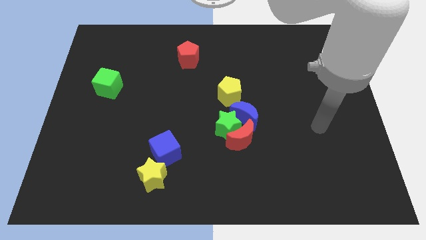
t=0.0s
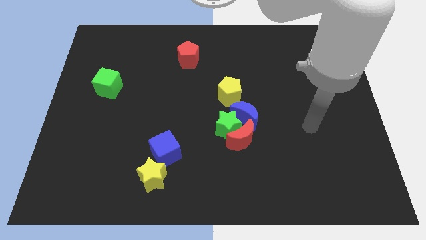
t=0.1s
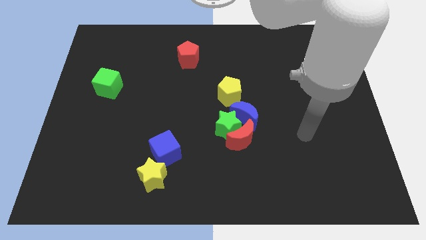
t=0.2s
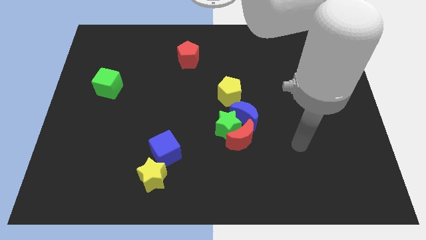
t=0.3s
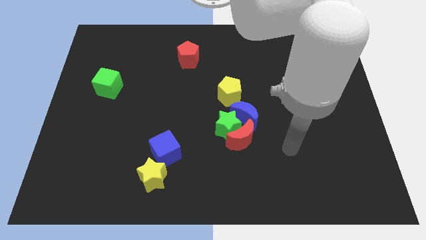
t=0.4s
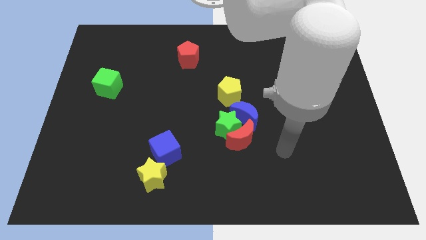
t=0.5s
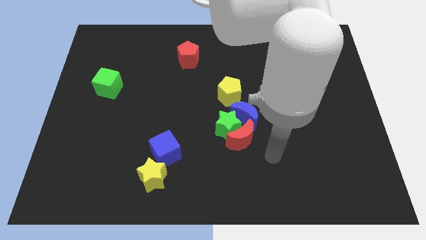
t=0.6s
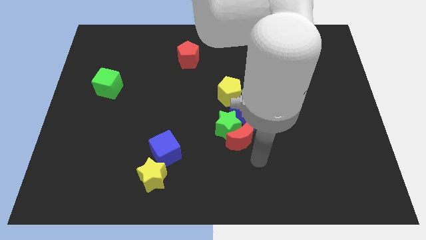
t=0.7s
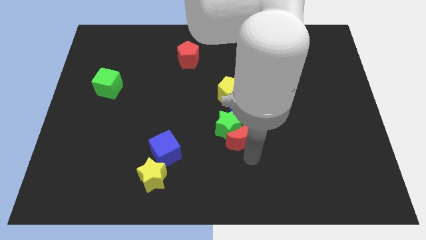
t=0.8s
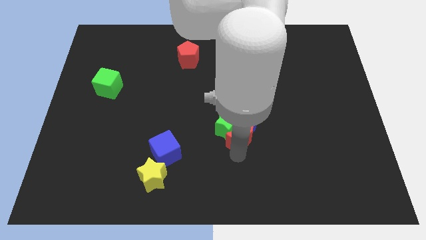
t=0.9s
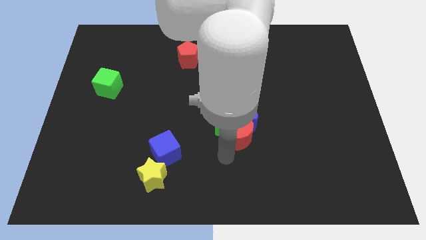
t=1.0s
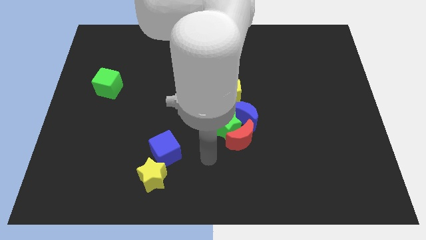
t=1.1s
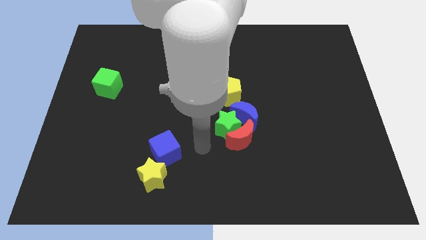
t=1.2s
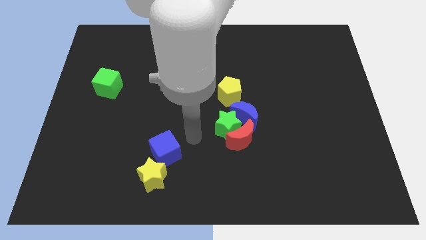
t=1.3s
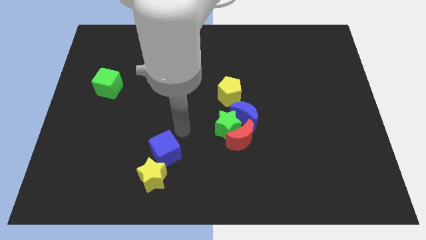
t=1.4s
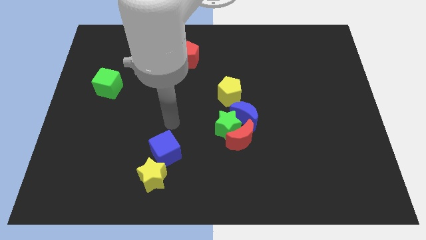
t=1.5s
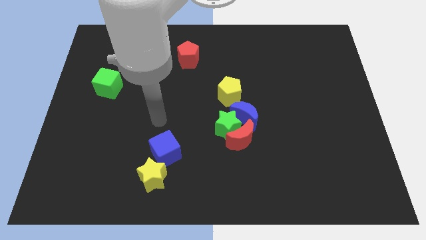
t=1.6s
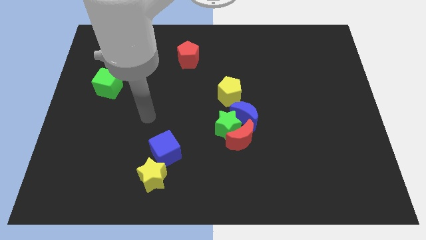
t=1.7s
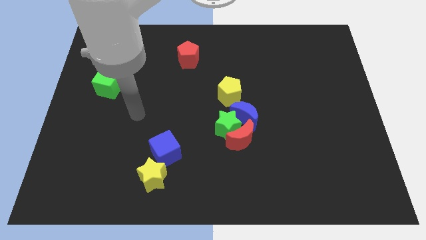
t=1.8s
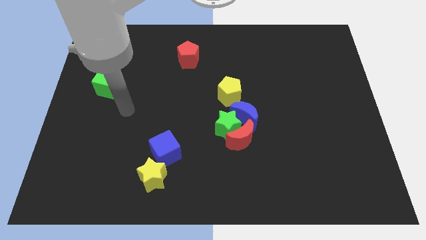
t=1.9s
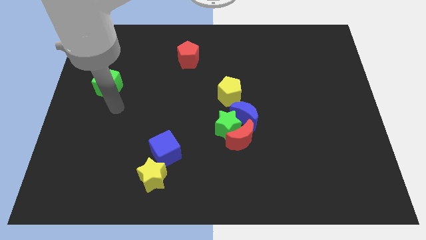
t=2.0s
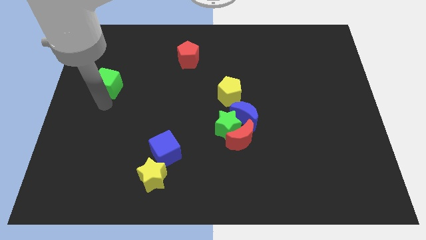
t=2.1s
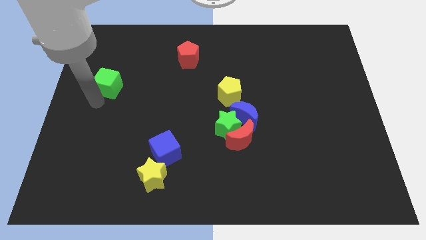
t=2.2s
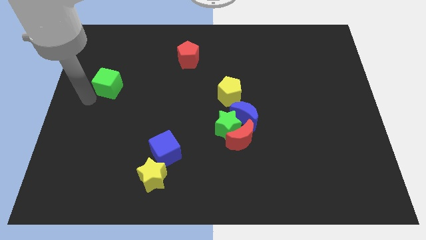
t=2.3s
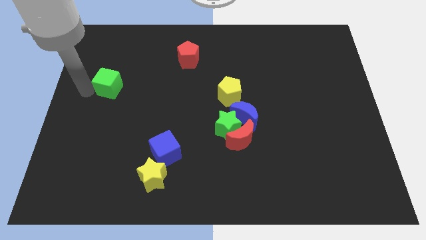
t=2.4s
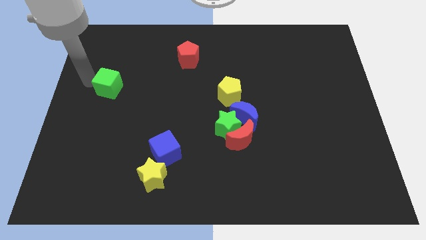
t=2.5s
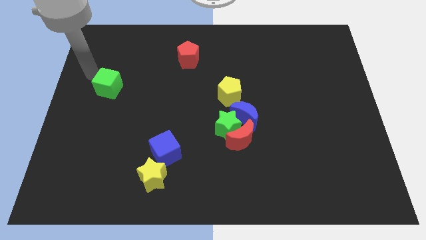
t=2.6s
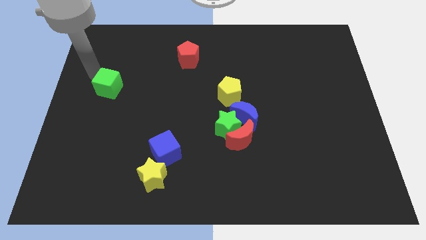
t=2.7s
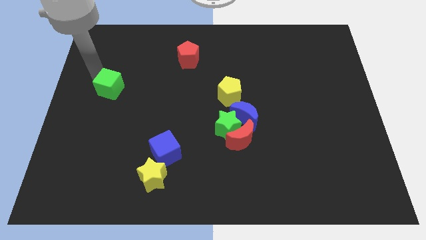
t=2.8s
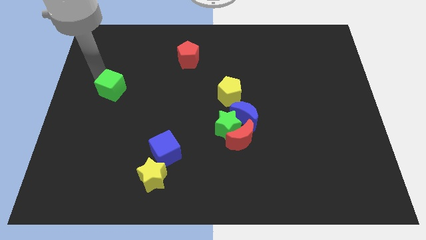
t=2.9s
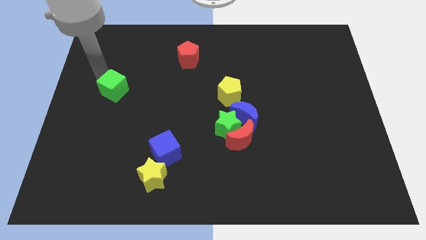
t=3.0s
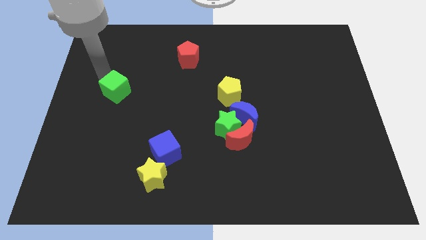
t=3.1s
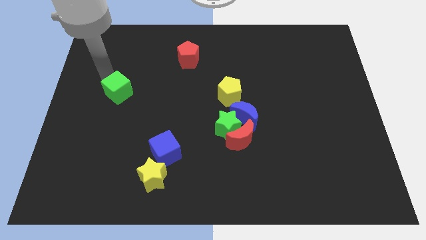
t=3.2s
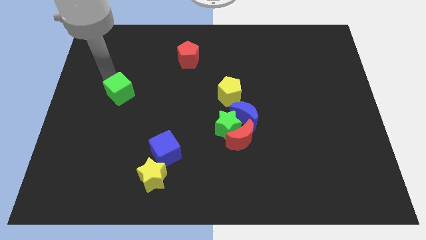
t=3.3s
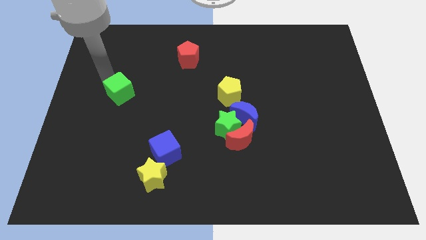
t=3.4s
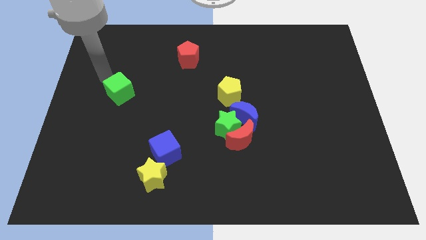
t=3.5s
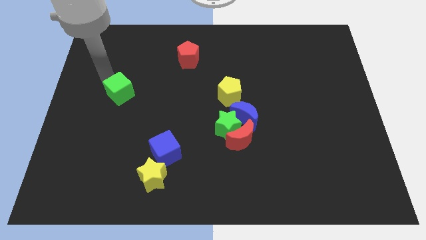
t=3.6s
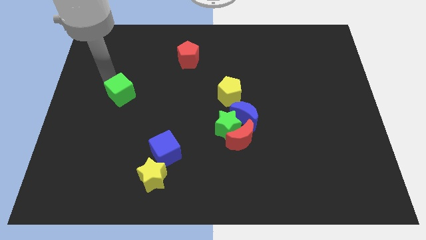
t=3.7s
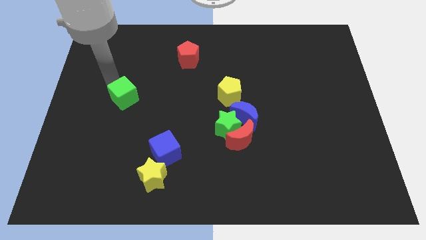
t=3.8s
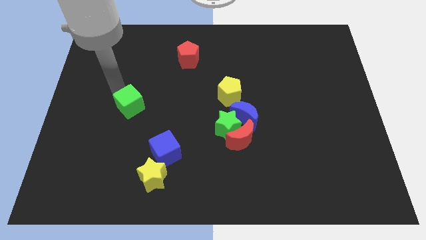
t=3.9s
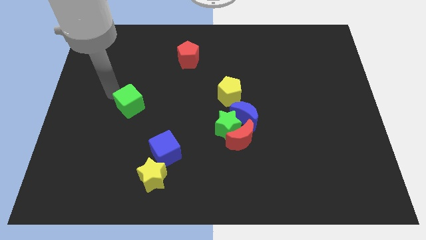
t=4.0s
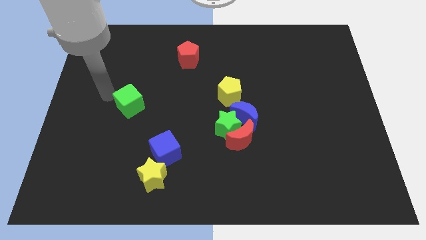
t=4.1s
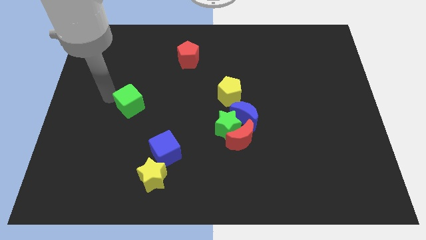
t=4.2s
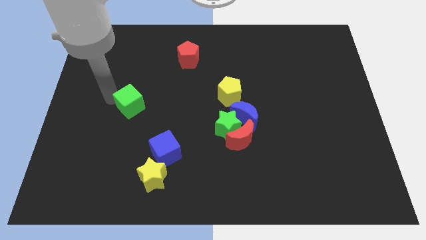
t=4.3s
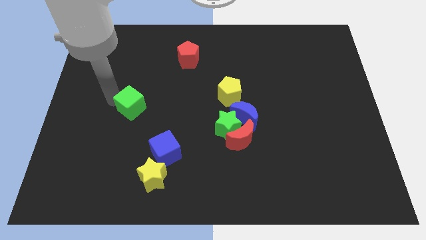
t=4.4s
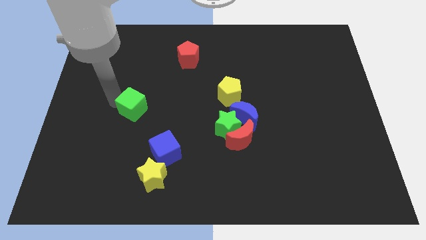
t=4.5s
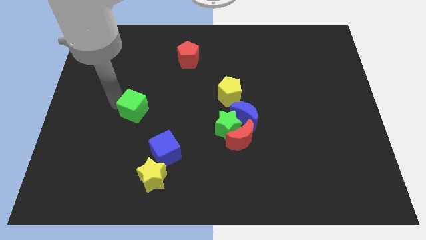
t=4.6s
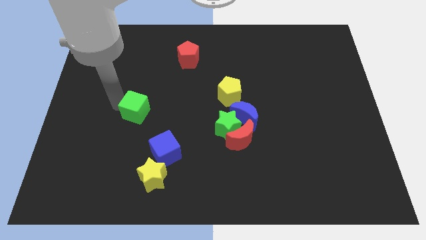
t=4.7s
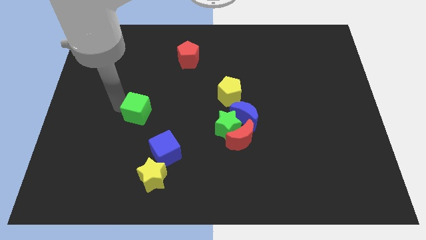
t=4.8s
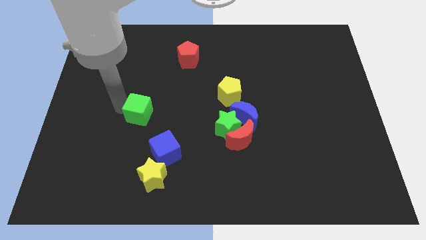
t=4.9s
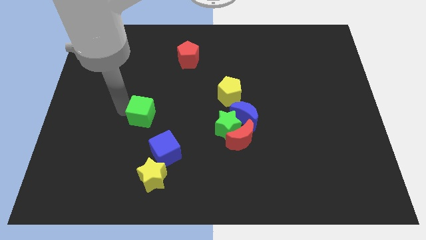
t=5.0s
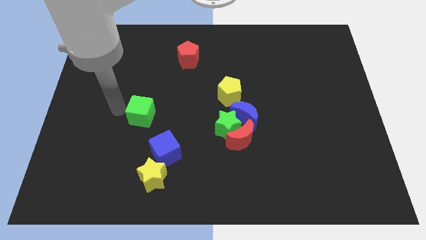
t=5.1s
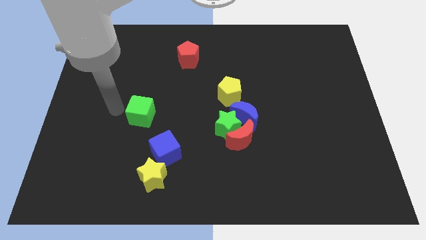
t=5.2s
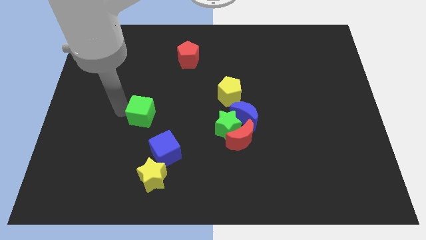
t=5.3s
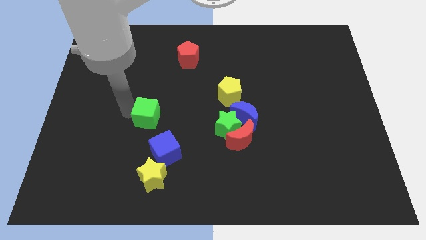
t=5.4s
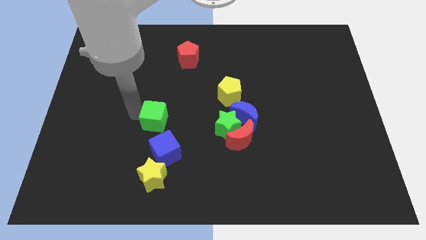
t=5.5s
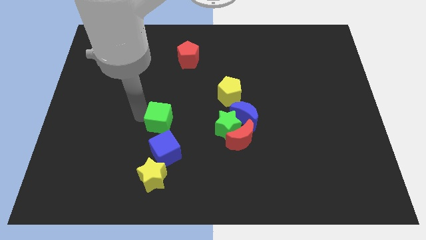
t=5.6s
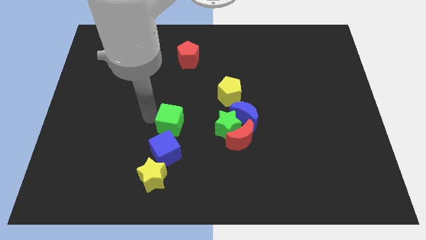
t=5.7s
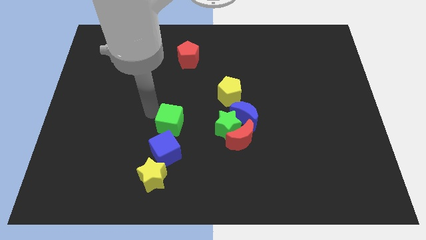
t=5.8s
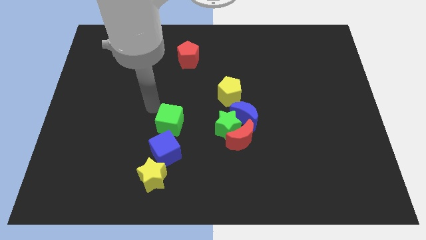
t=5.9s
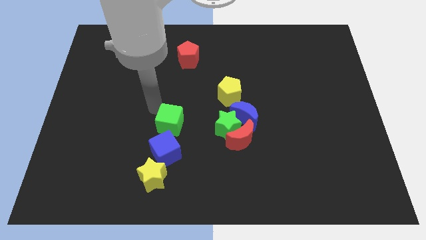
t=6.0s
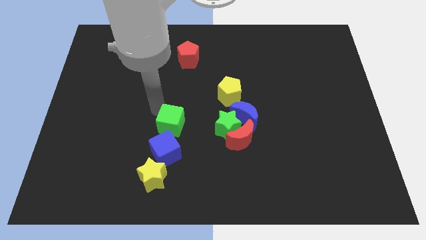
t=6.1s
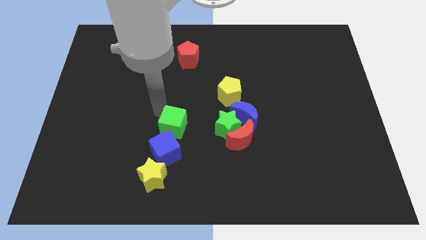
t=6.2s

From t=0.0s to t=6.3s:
slide the green cube downwards and right

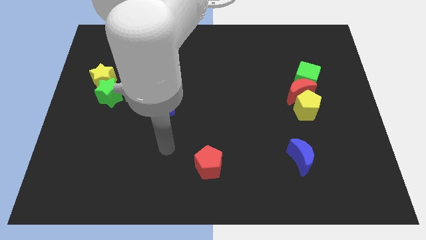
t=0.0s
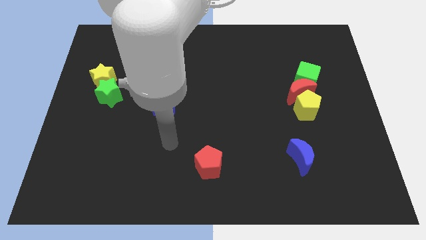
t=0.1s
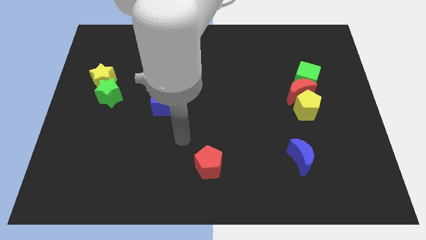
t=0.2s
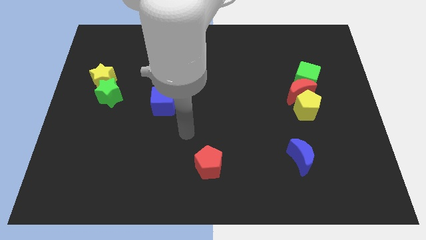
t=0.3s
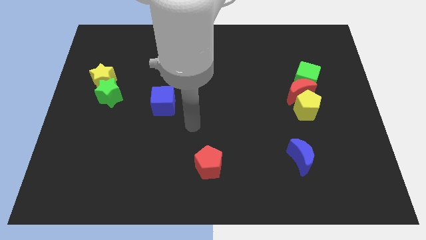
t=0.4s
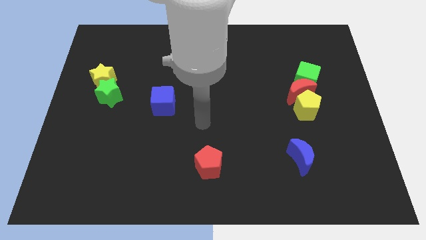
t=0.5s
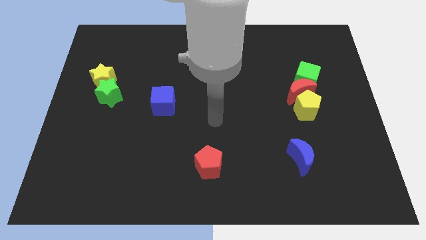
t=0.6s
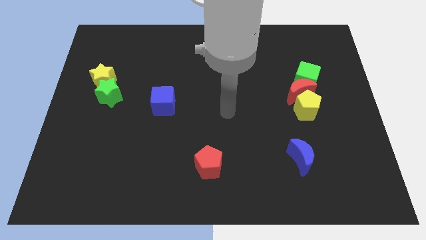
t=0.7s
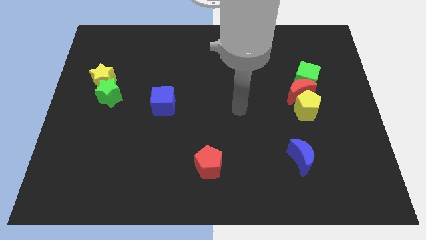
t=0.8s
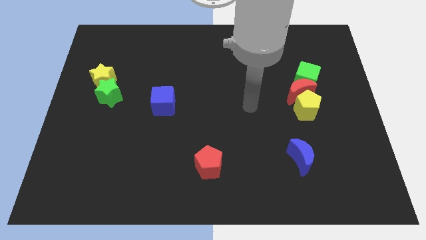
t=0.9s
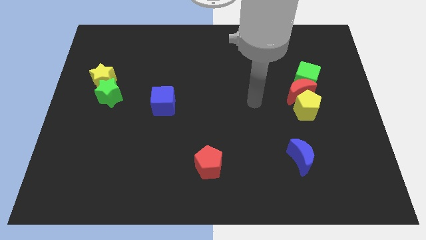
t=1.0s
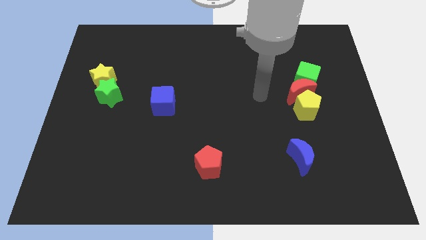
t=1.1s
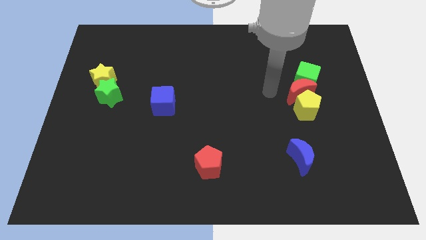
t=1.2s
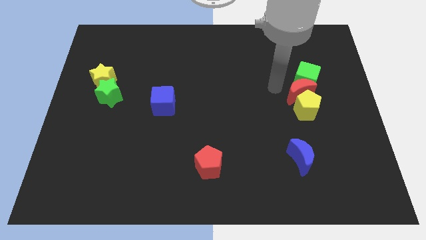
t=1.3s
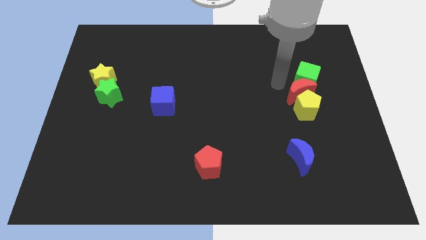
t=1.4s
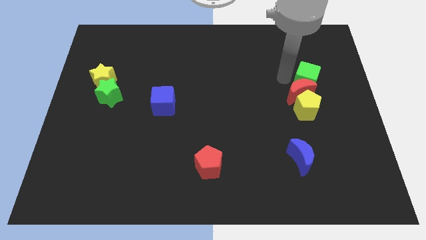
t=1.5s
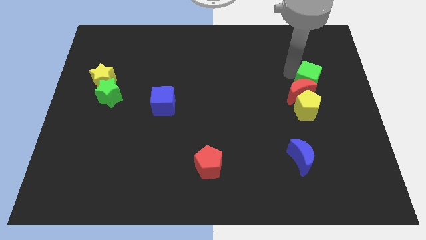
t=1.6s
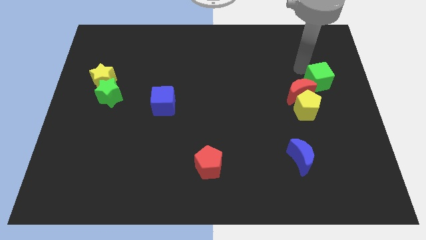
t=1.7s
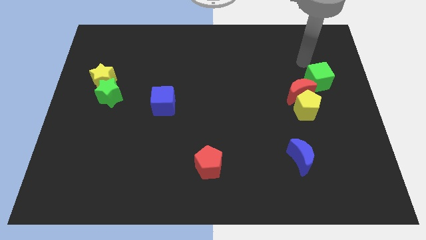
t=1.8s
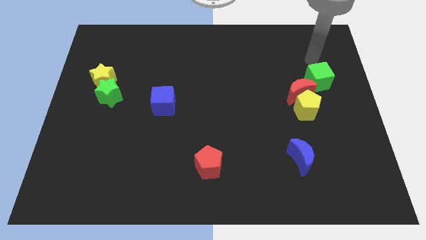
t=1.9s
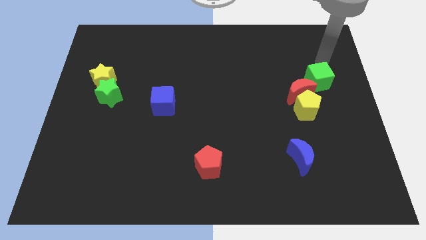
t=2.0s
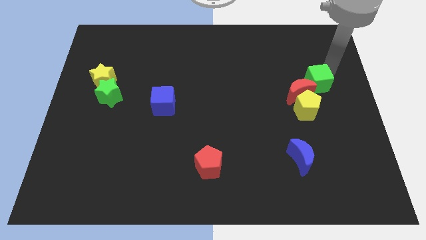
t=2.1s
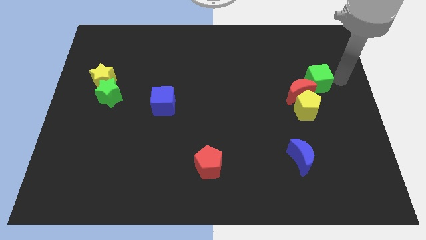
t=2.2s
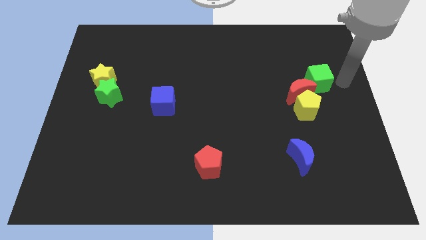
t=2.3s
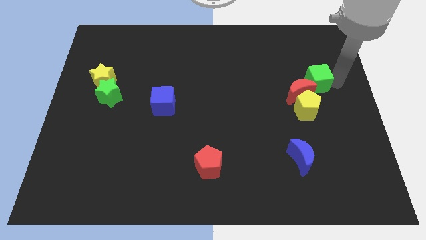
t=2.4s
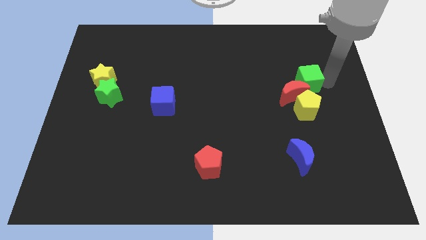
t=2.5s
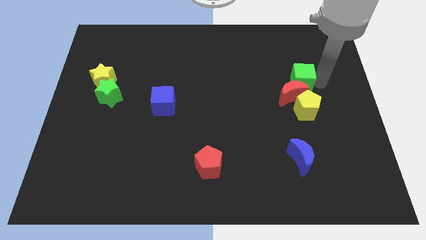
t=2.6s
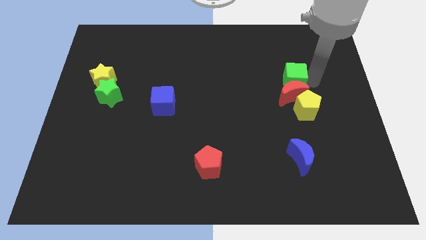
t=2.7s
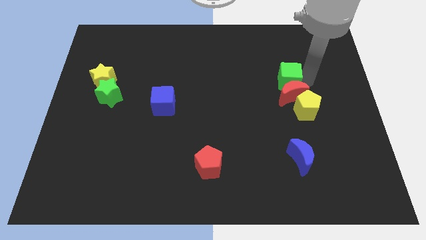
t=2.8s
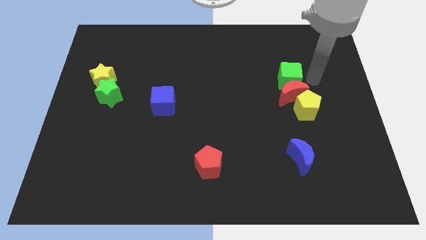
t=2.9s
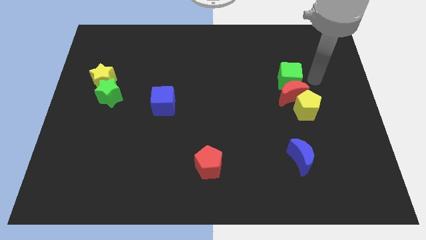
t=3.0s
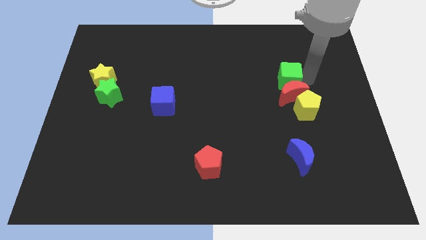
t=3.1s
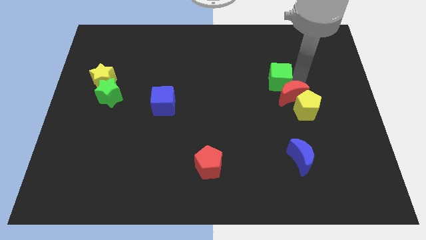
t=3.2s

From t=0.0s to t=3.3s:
slightly slide the green cube left
